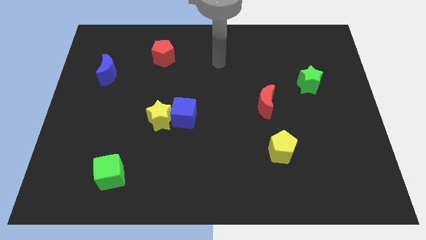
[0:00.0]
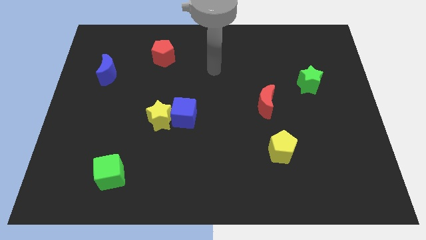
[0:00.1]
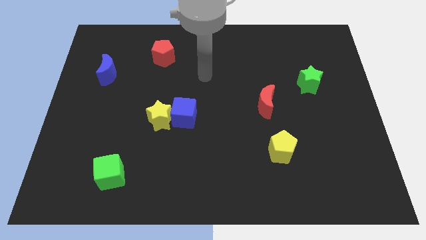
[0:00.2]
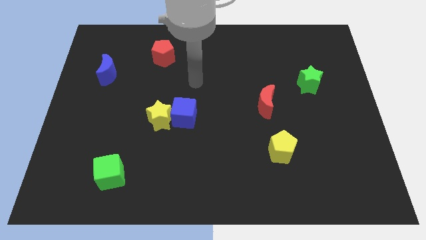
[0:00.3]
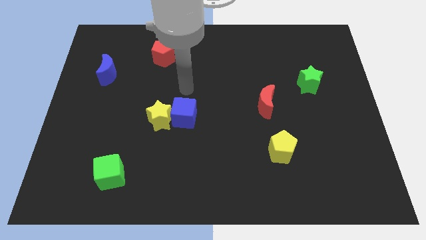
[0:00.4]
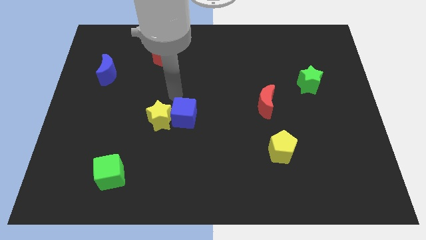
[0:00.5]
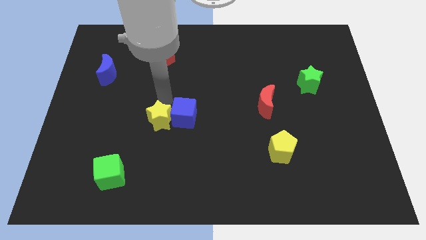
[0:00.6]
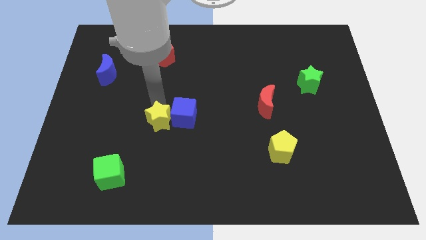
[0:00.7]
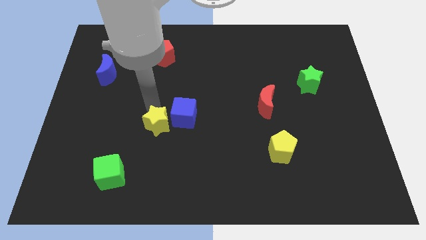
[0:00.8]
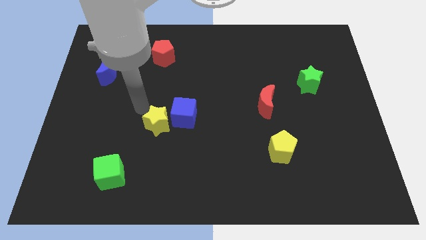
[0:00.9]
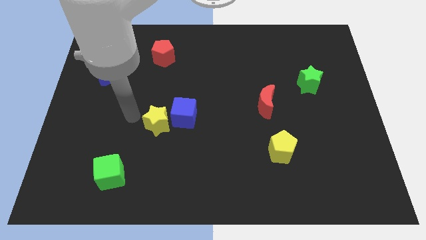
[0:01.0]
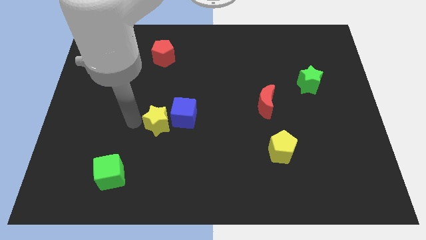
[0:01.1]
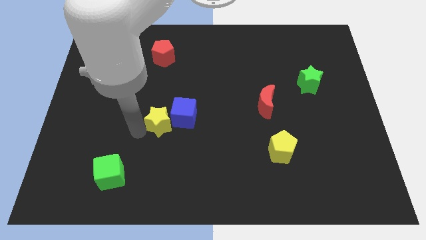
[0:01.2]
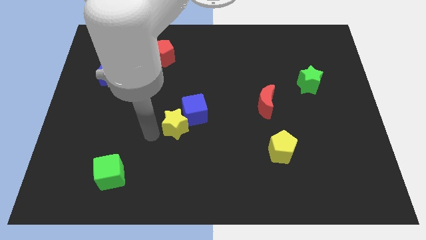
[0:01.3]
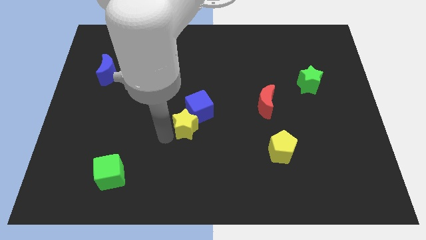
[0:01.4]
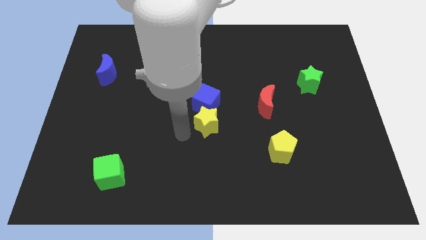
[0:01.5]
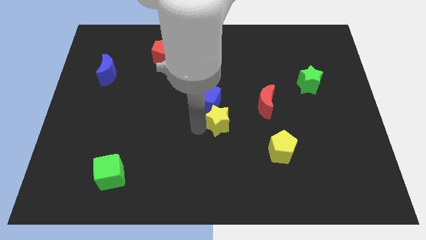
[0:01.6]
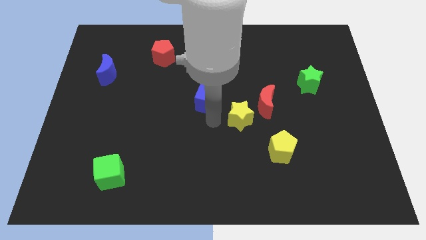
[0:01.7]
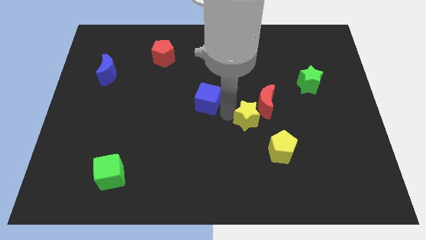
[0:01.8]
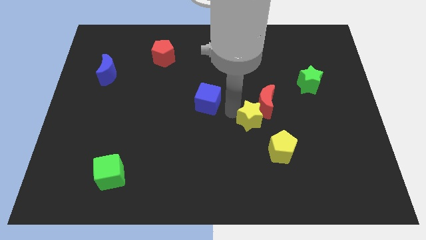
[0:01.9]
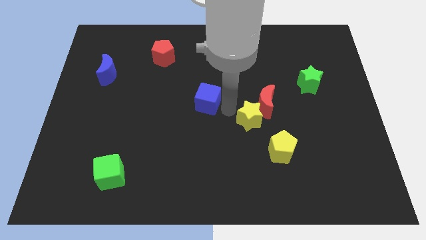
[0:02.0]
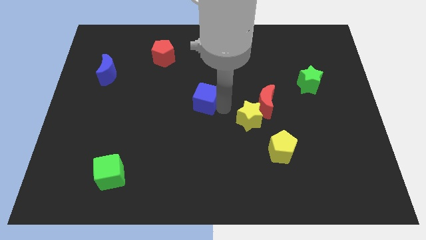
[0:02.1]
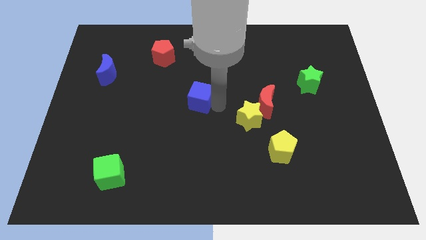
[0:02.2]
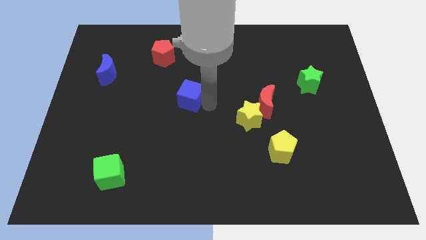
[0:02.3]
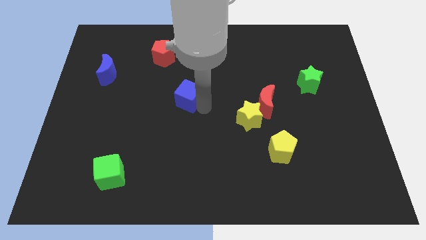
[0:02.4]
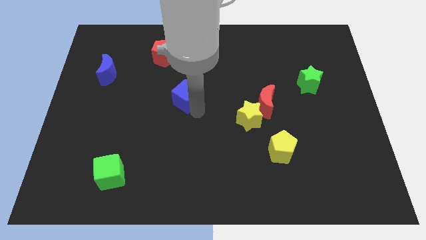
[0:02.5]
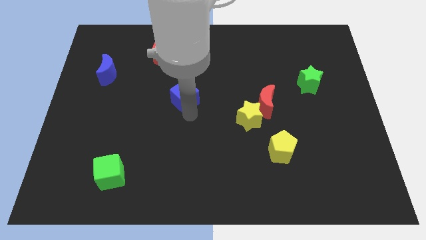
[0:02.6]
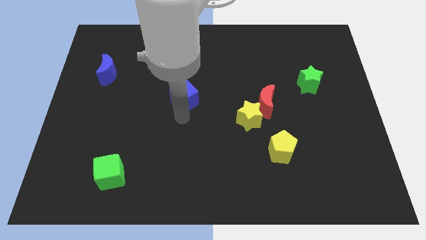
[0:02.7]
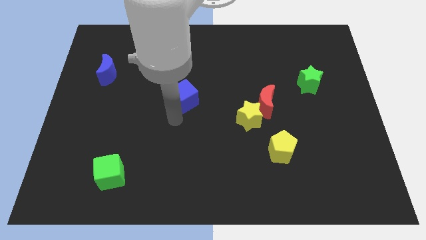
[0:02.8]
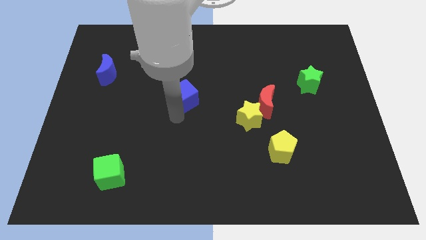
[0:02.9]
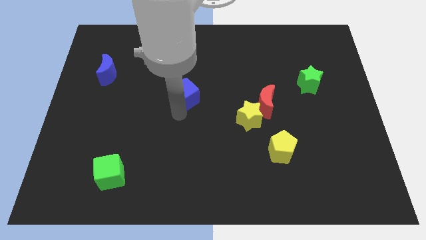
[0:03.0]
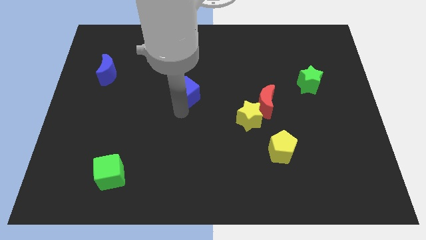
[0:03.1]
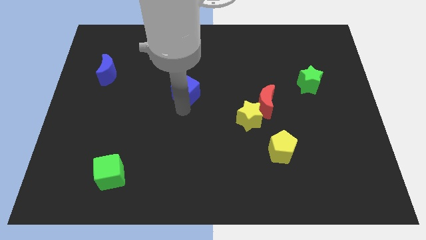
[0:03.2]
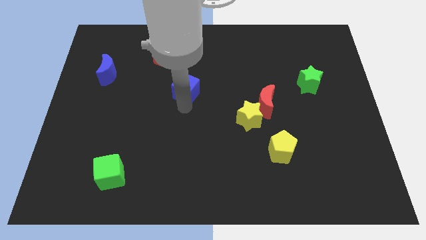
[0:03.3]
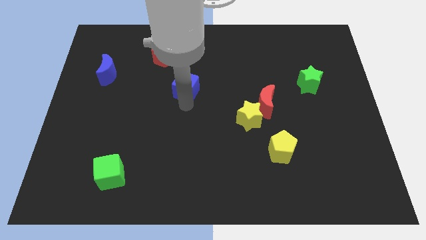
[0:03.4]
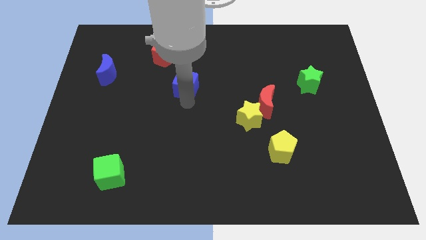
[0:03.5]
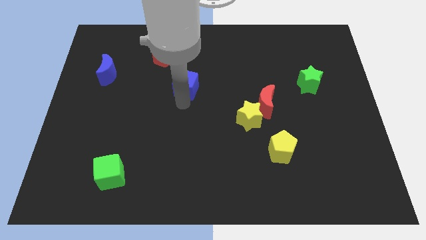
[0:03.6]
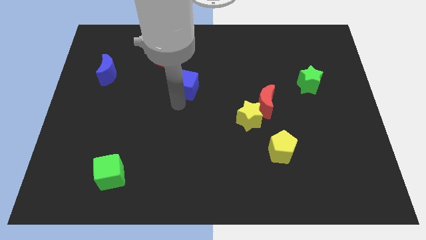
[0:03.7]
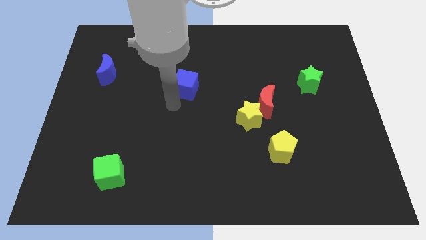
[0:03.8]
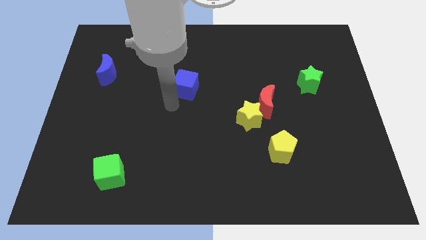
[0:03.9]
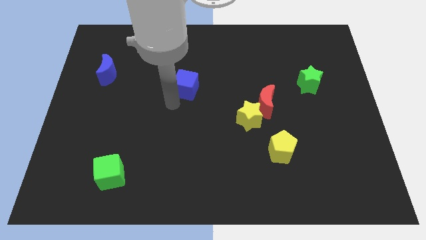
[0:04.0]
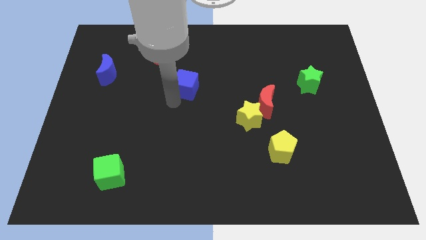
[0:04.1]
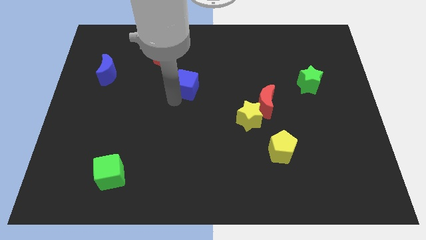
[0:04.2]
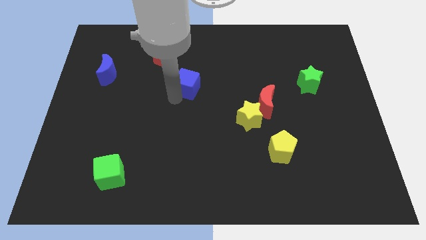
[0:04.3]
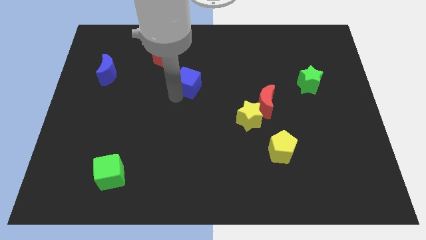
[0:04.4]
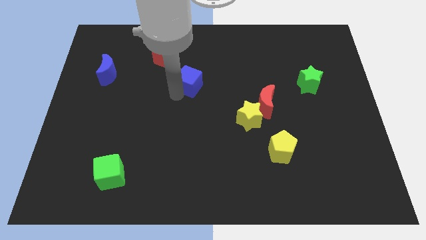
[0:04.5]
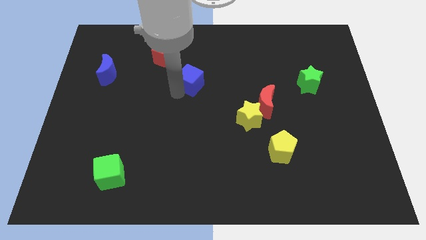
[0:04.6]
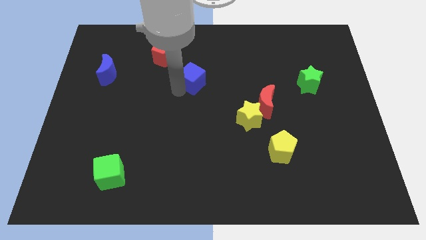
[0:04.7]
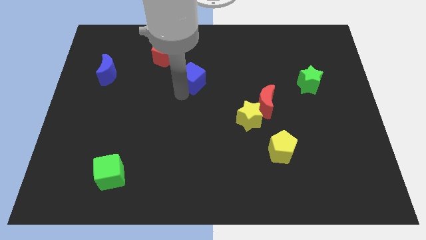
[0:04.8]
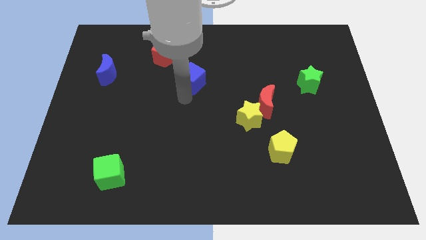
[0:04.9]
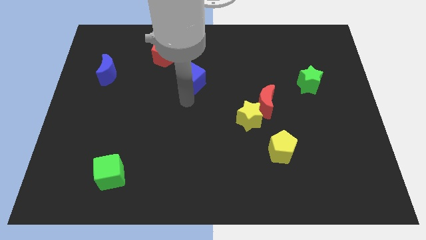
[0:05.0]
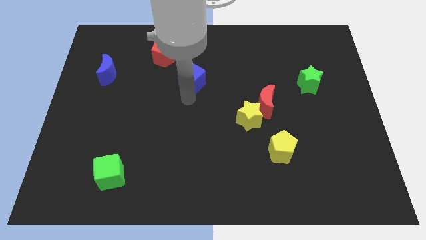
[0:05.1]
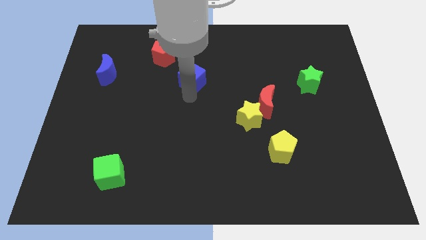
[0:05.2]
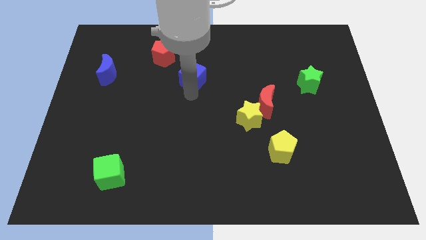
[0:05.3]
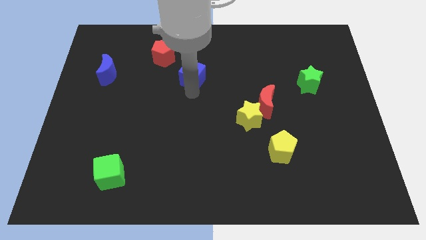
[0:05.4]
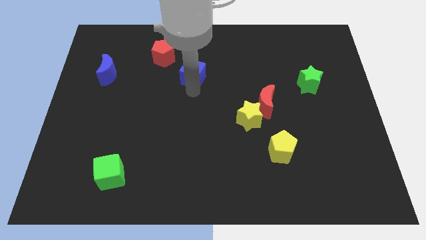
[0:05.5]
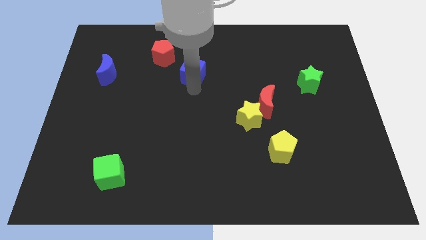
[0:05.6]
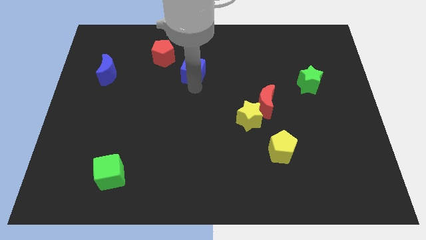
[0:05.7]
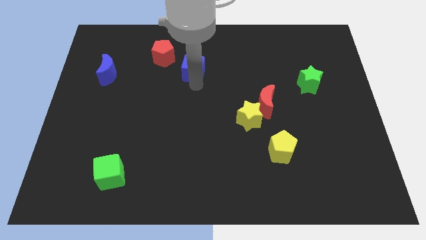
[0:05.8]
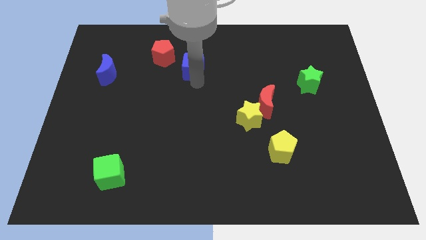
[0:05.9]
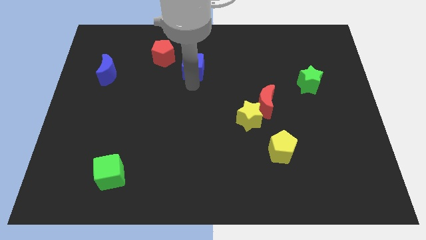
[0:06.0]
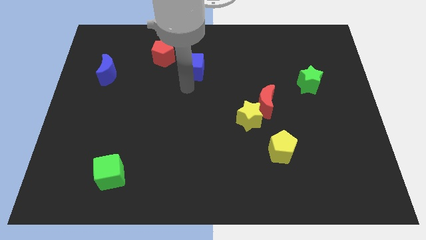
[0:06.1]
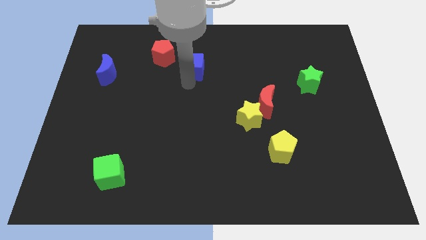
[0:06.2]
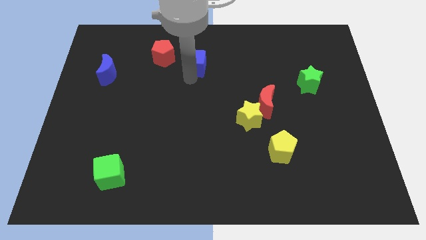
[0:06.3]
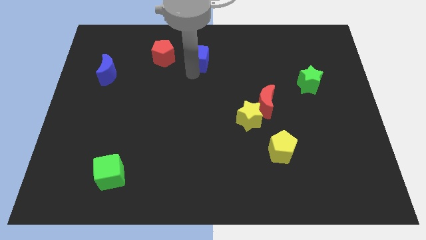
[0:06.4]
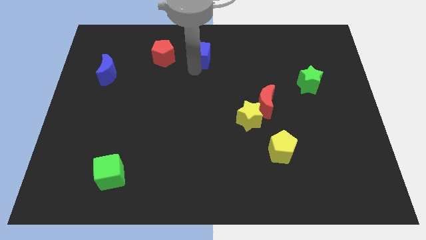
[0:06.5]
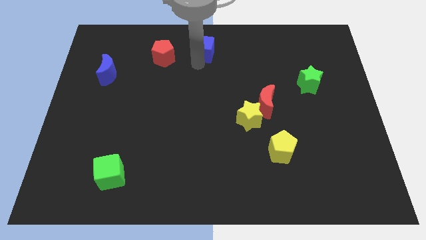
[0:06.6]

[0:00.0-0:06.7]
push the blue cube to the top
